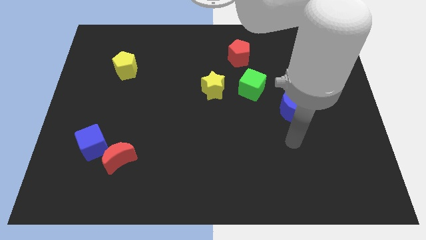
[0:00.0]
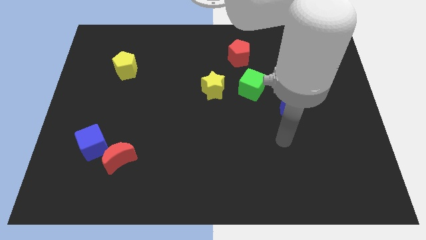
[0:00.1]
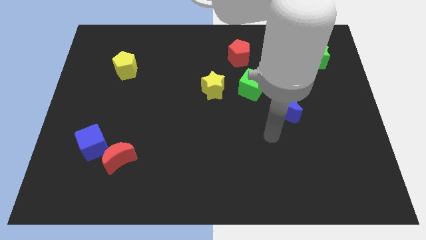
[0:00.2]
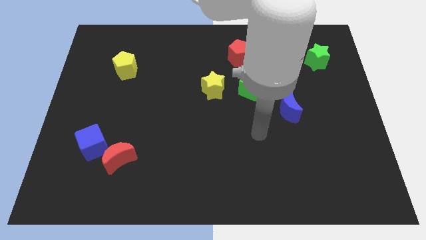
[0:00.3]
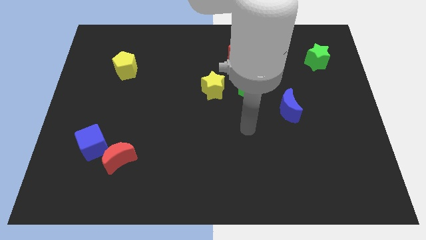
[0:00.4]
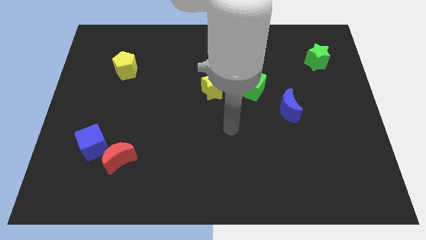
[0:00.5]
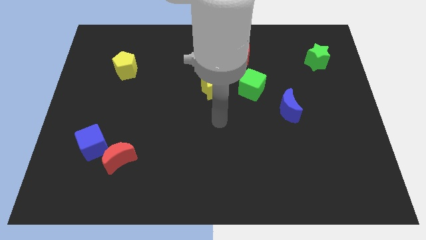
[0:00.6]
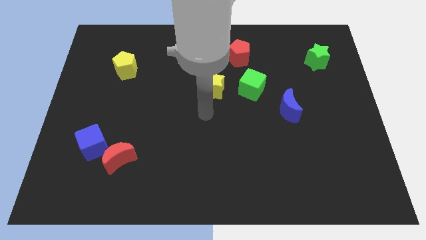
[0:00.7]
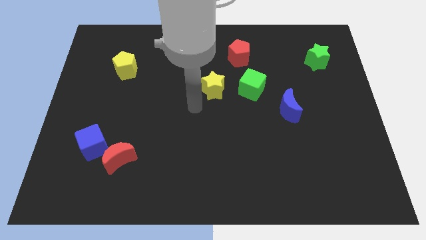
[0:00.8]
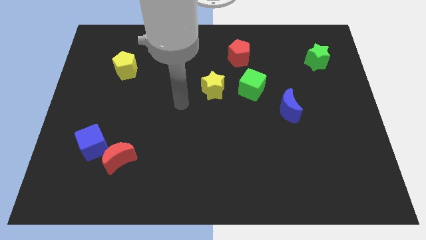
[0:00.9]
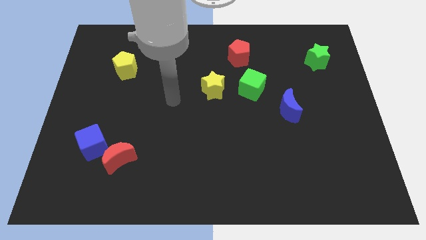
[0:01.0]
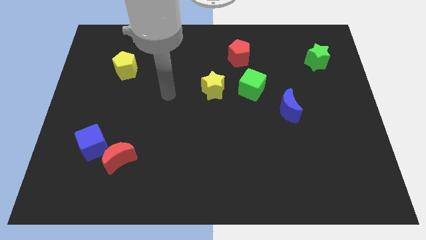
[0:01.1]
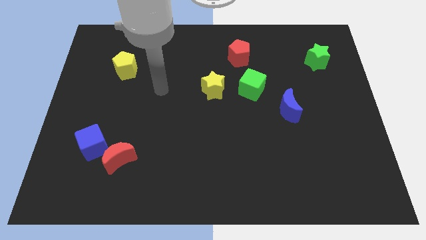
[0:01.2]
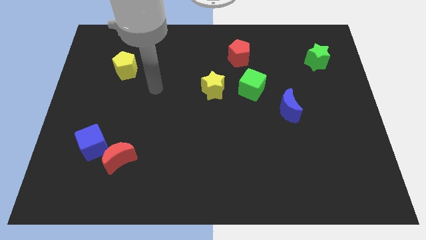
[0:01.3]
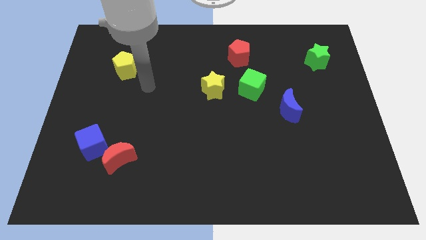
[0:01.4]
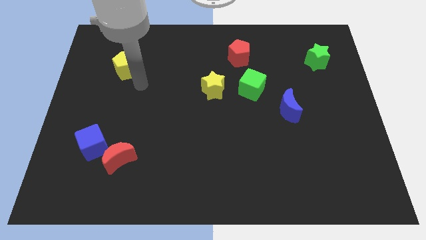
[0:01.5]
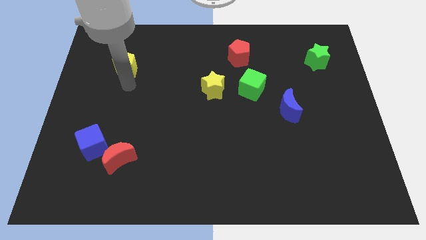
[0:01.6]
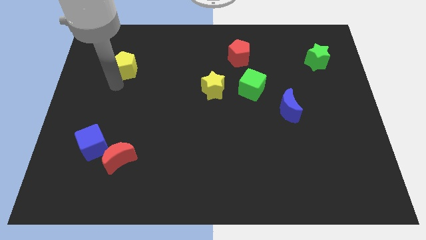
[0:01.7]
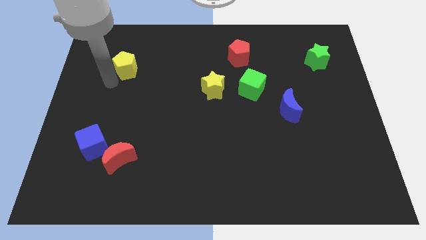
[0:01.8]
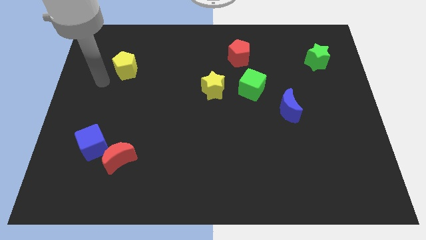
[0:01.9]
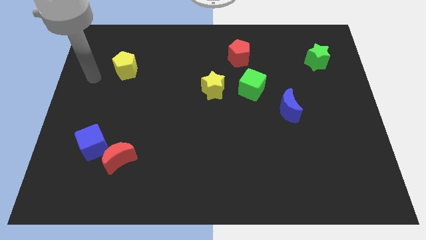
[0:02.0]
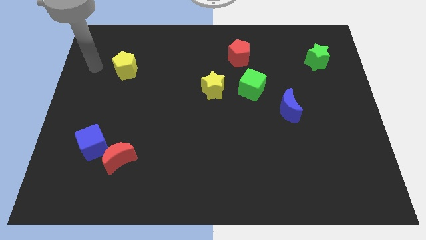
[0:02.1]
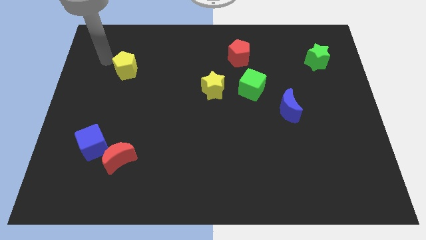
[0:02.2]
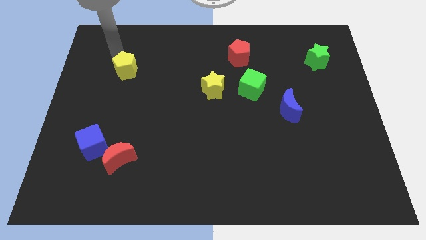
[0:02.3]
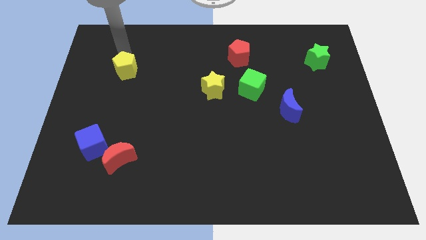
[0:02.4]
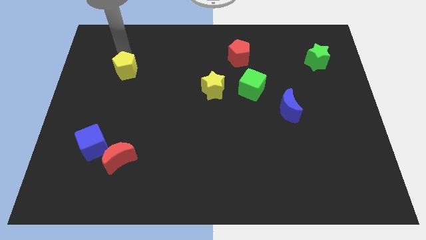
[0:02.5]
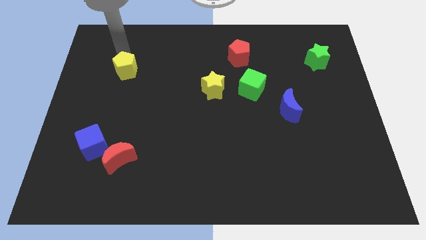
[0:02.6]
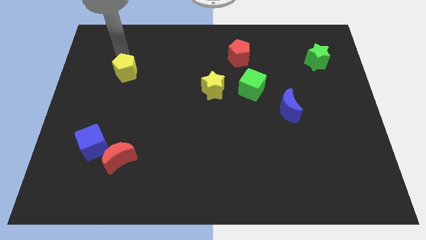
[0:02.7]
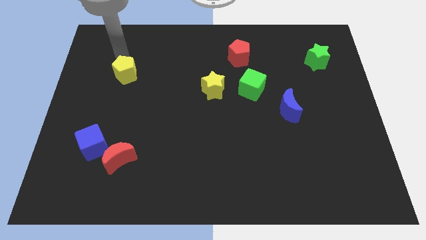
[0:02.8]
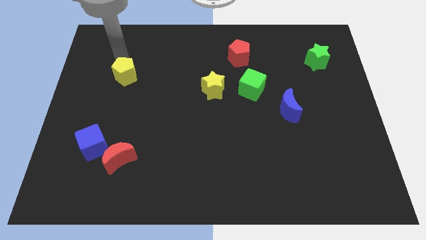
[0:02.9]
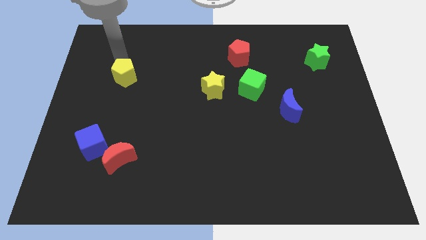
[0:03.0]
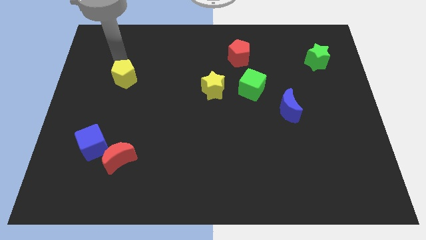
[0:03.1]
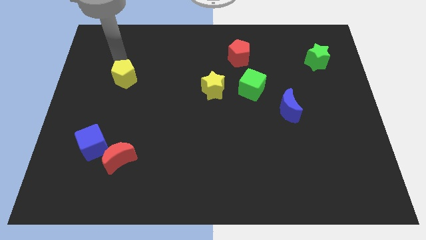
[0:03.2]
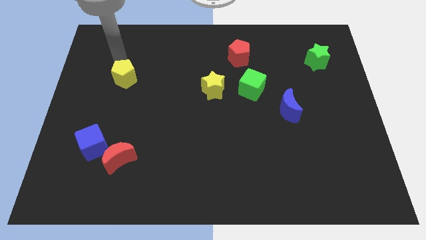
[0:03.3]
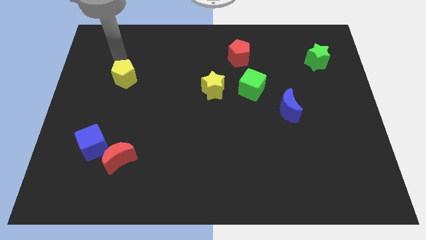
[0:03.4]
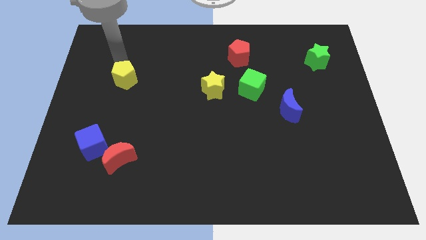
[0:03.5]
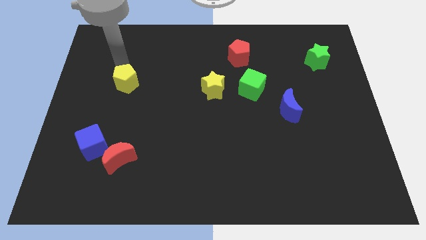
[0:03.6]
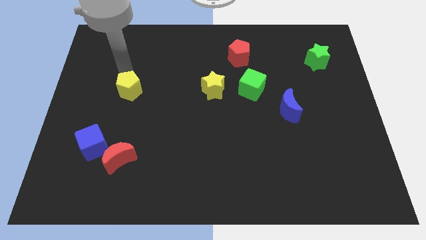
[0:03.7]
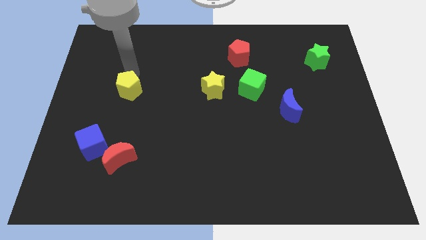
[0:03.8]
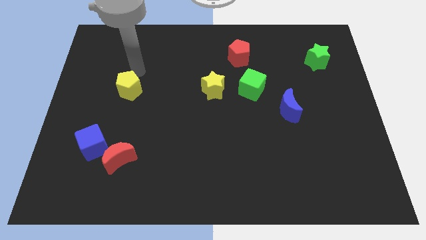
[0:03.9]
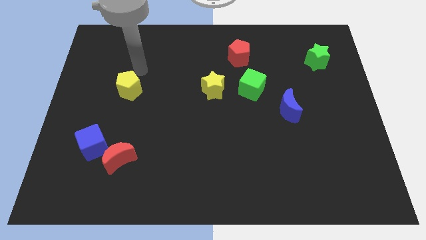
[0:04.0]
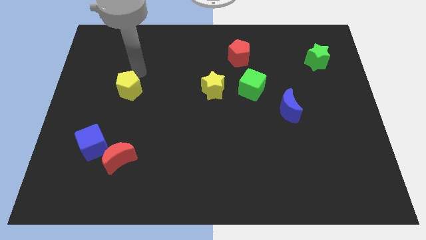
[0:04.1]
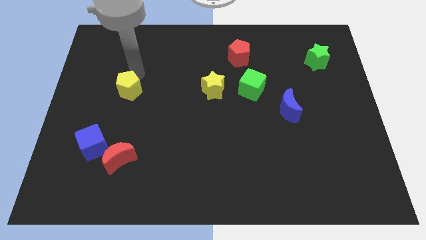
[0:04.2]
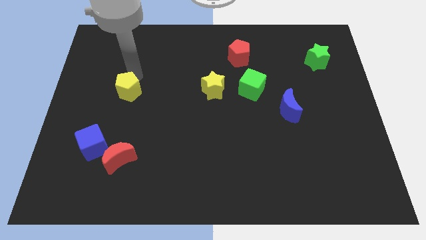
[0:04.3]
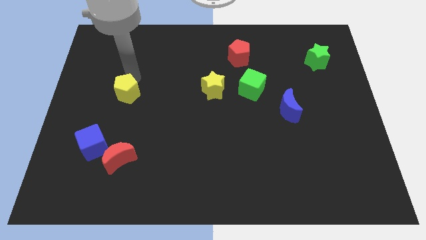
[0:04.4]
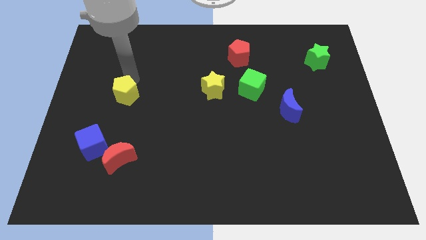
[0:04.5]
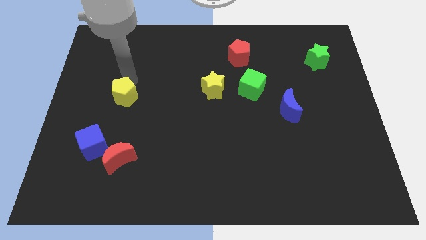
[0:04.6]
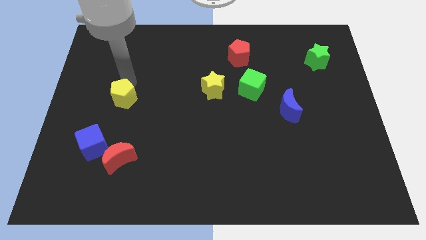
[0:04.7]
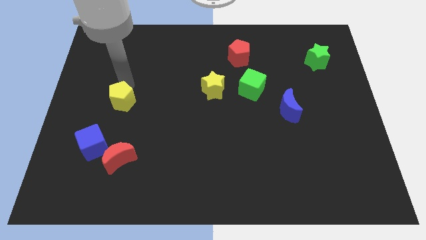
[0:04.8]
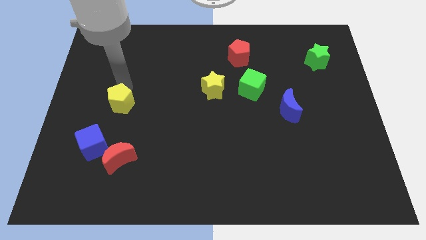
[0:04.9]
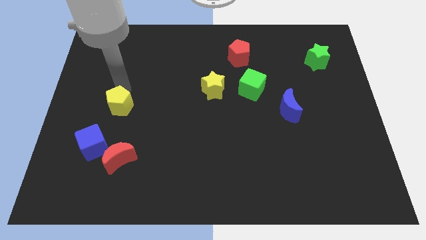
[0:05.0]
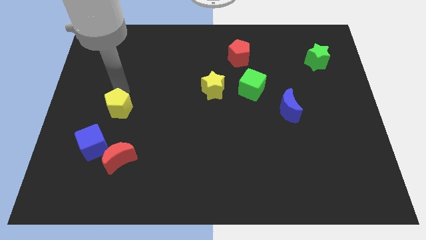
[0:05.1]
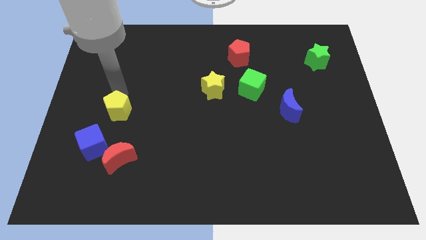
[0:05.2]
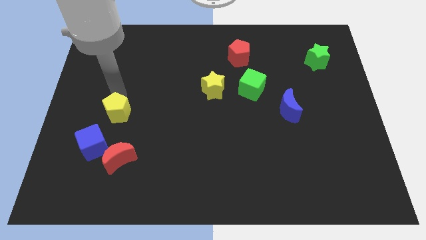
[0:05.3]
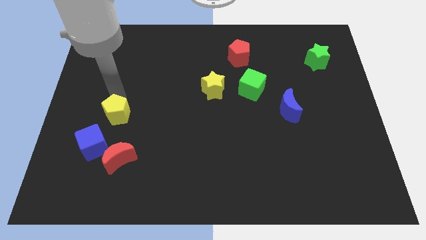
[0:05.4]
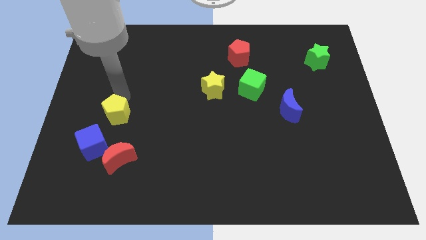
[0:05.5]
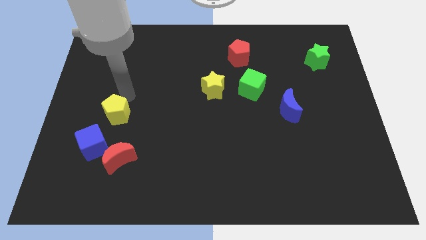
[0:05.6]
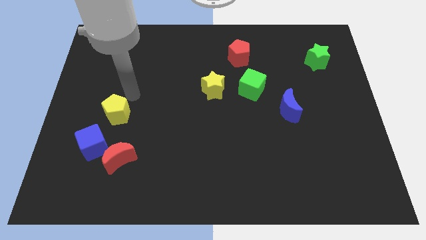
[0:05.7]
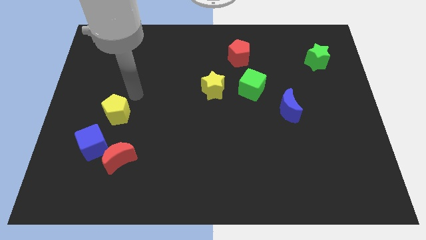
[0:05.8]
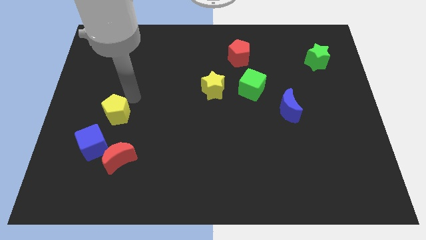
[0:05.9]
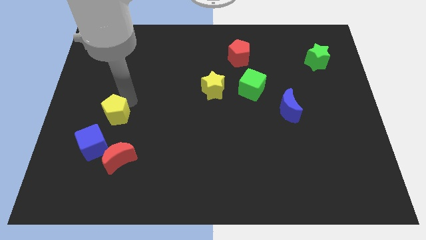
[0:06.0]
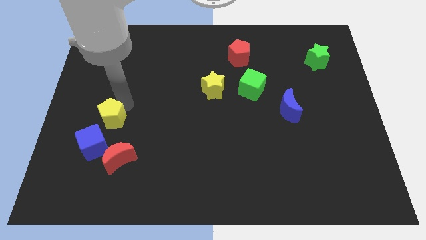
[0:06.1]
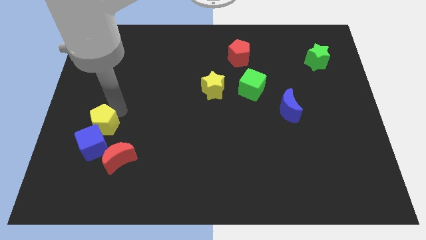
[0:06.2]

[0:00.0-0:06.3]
push the yellow pentagon next to the blue cube

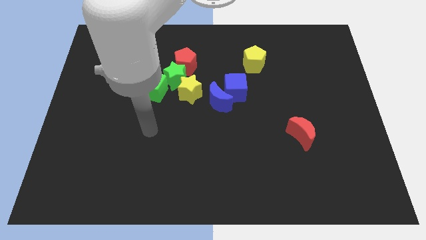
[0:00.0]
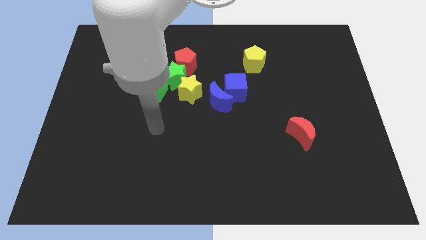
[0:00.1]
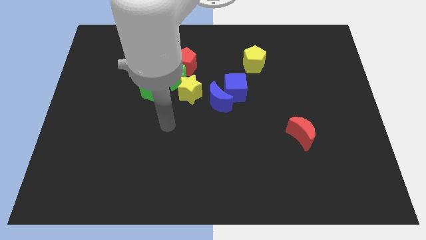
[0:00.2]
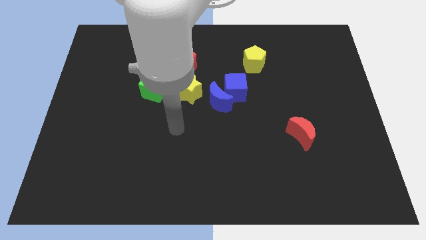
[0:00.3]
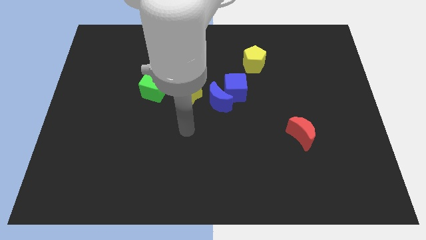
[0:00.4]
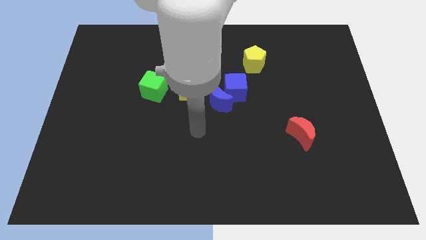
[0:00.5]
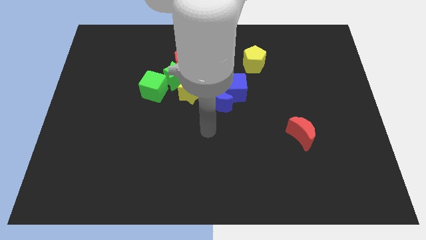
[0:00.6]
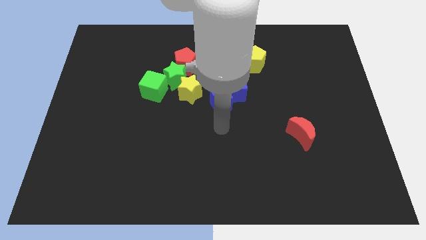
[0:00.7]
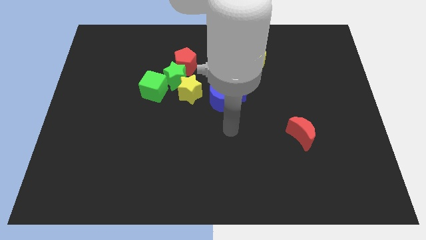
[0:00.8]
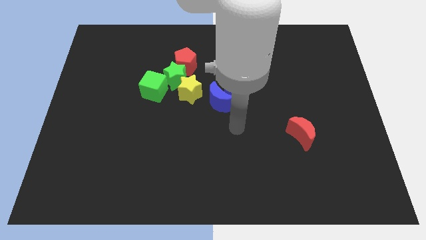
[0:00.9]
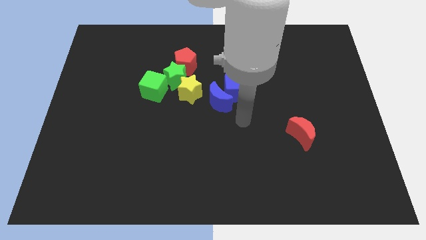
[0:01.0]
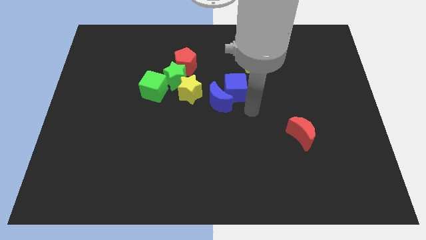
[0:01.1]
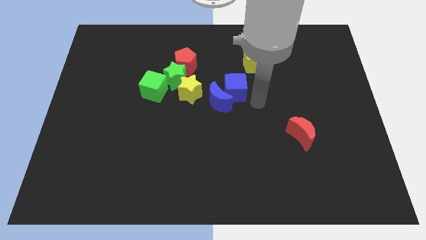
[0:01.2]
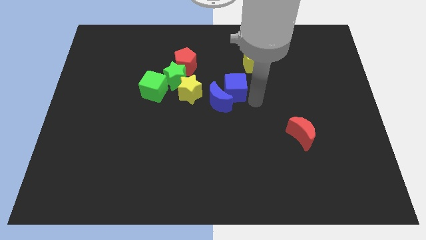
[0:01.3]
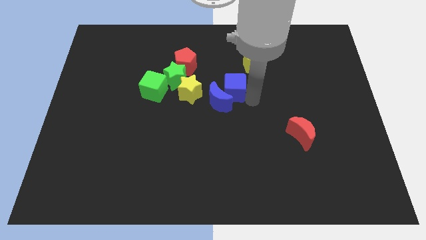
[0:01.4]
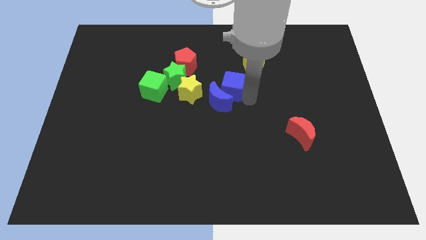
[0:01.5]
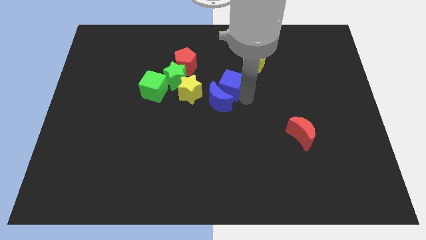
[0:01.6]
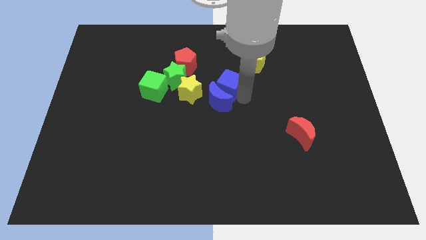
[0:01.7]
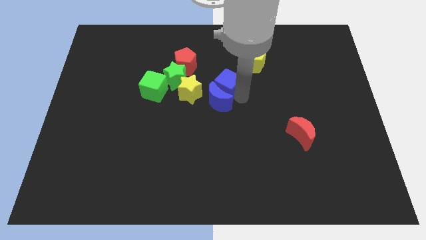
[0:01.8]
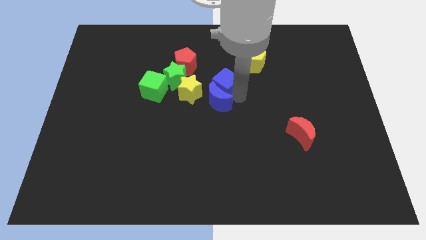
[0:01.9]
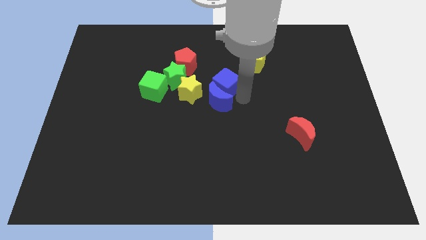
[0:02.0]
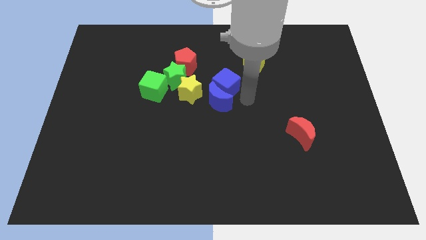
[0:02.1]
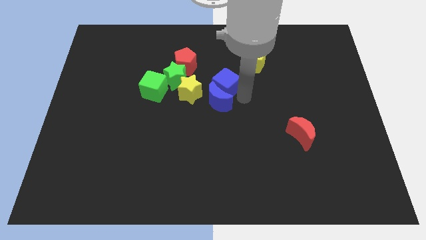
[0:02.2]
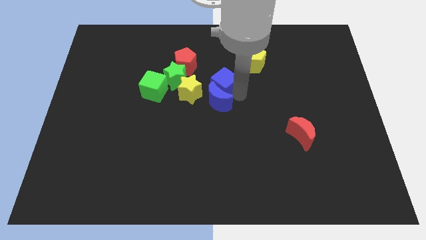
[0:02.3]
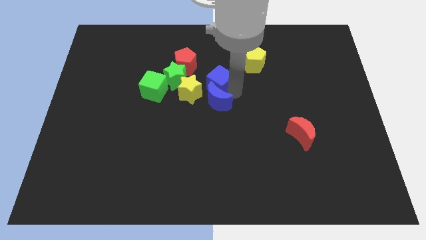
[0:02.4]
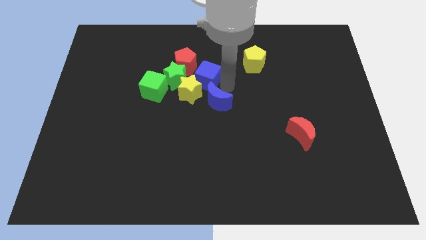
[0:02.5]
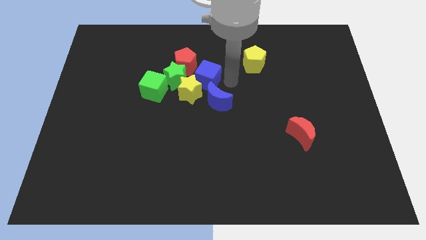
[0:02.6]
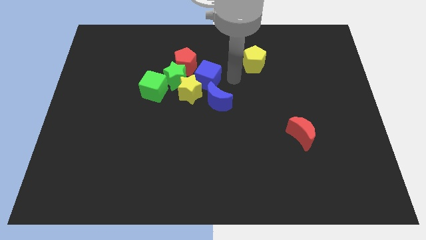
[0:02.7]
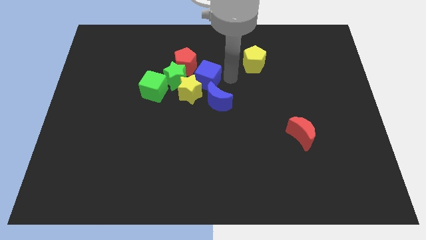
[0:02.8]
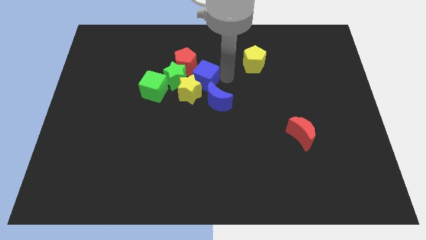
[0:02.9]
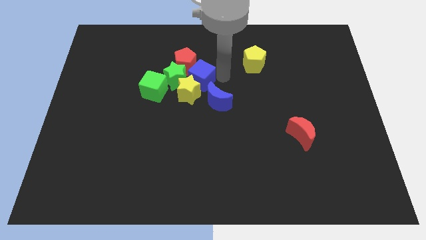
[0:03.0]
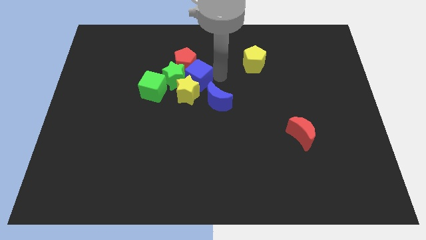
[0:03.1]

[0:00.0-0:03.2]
slide the blue cube to the green star
